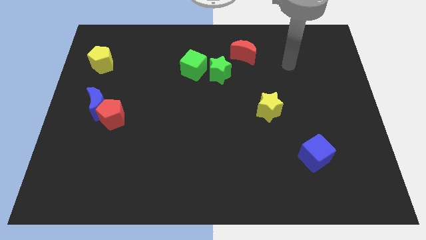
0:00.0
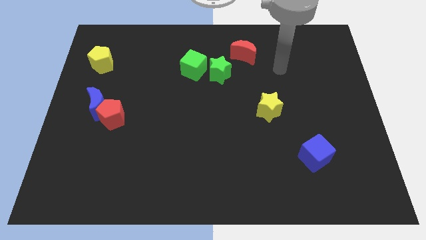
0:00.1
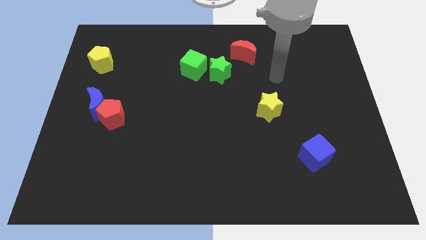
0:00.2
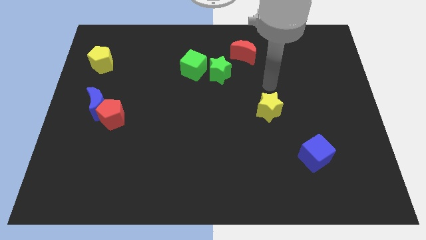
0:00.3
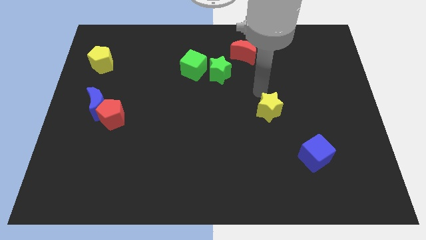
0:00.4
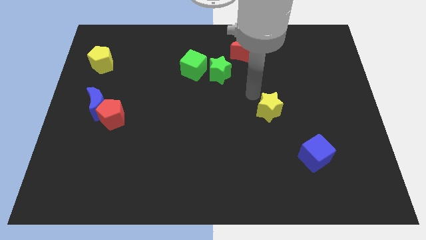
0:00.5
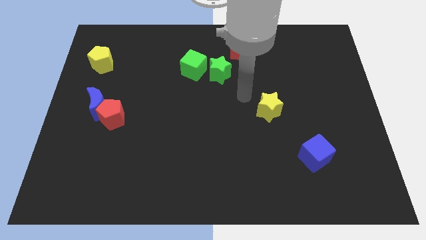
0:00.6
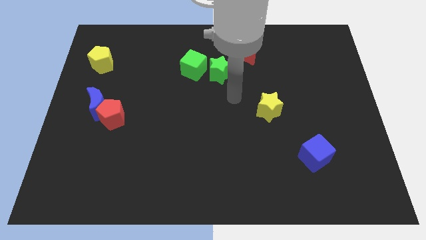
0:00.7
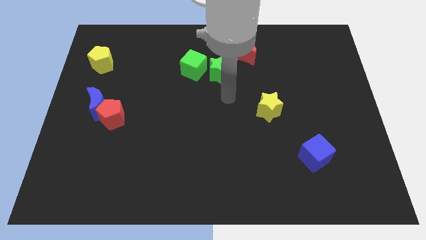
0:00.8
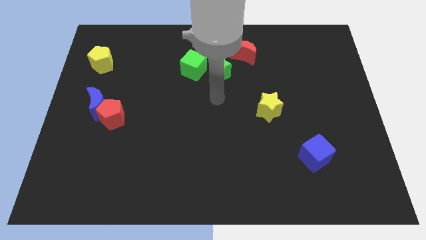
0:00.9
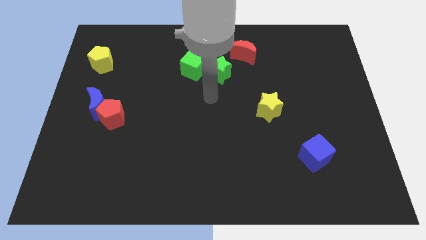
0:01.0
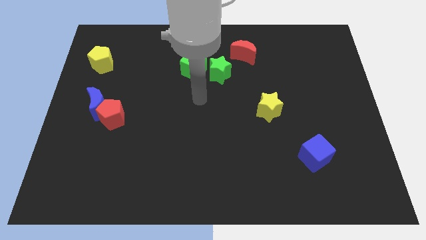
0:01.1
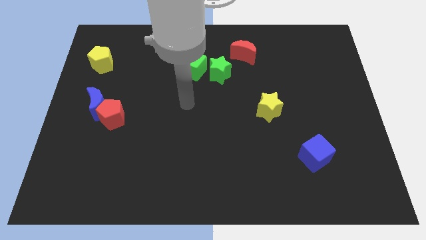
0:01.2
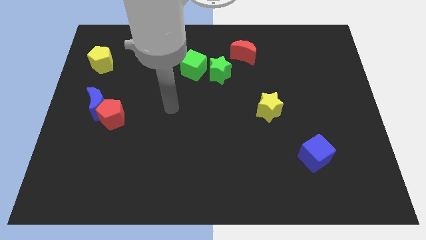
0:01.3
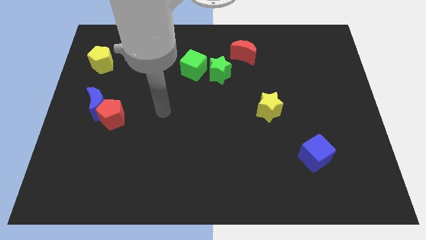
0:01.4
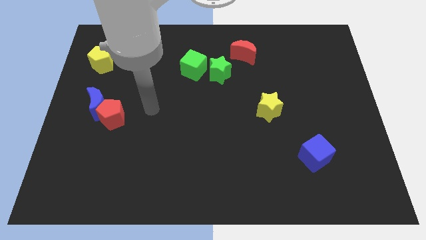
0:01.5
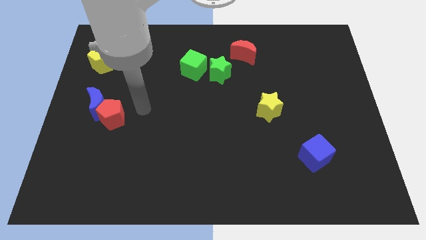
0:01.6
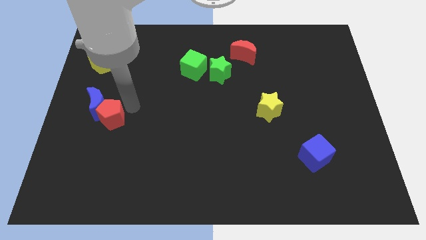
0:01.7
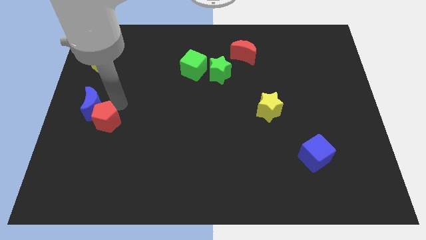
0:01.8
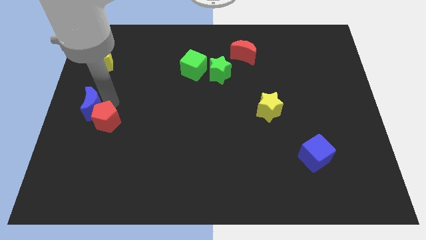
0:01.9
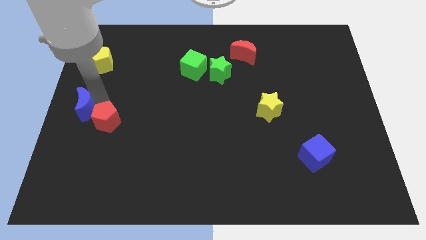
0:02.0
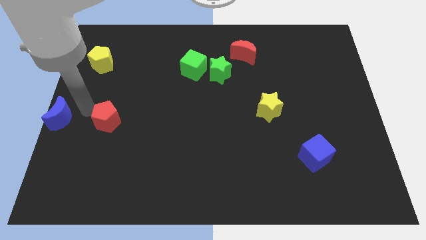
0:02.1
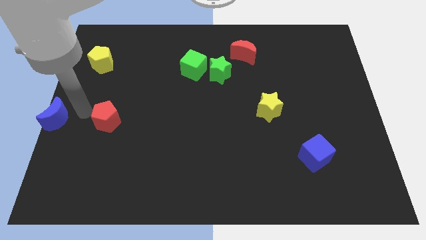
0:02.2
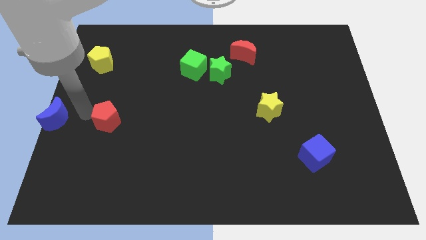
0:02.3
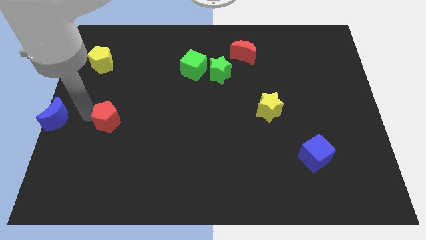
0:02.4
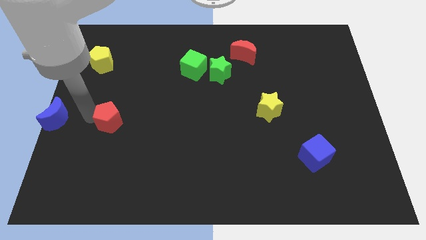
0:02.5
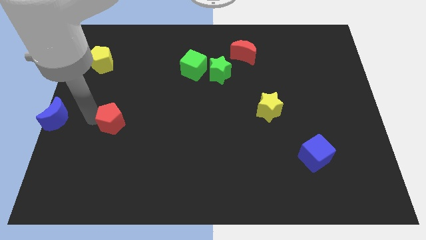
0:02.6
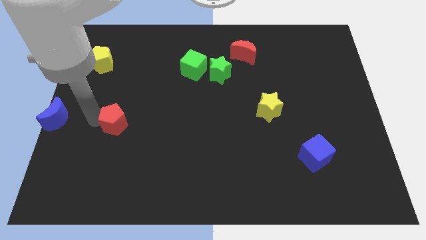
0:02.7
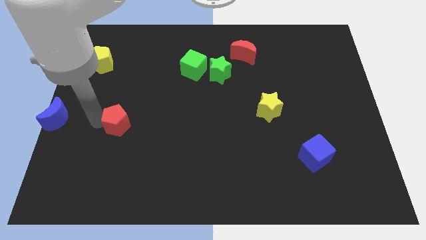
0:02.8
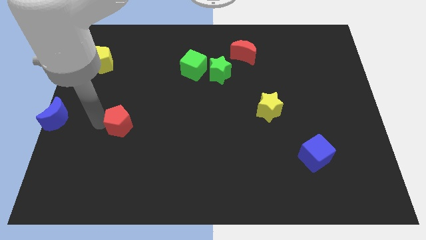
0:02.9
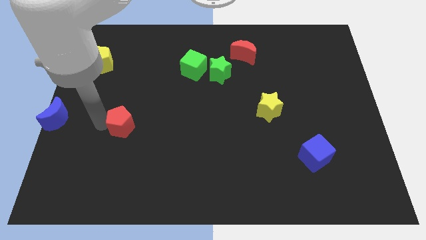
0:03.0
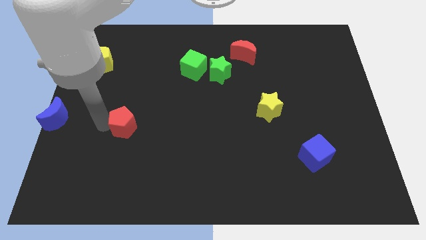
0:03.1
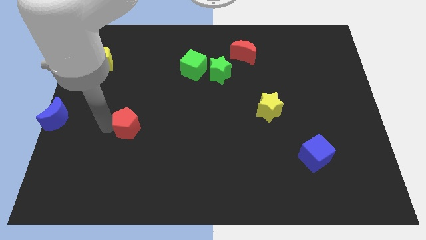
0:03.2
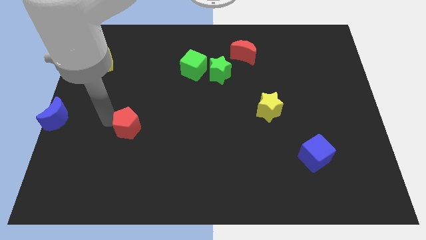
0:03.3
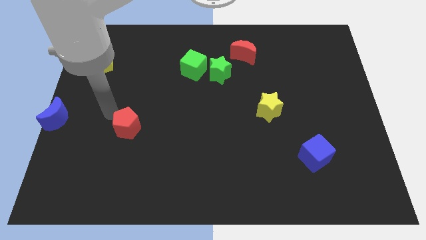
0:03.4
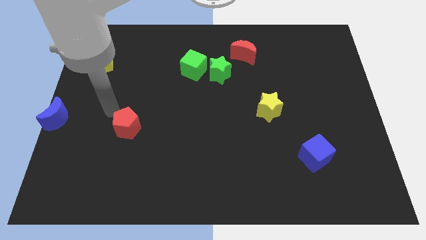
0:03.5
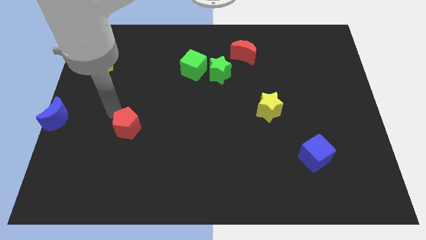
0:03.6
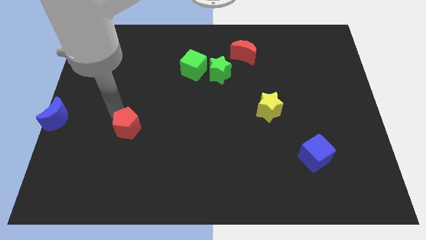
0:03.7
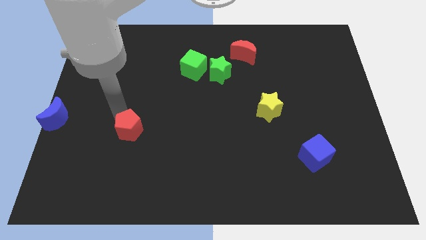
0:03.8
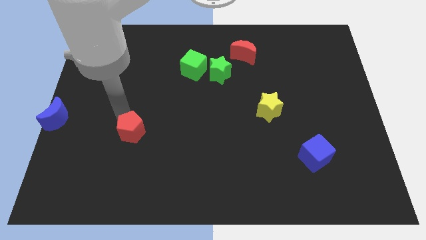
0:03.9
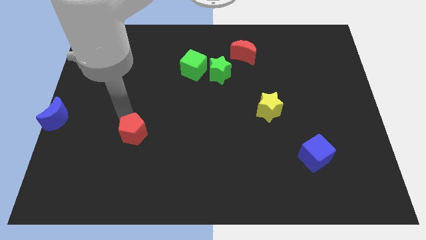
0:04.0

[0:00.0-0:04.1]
slightly push the red pentagon down and right

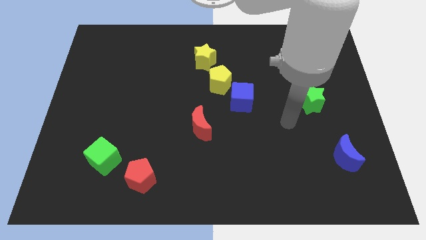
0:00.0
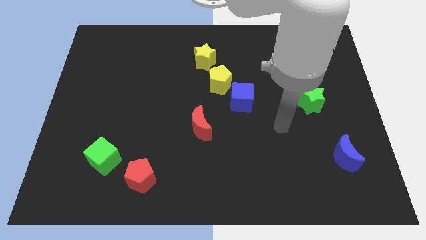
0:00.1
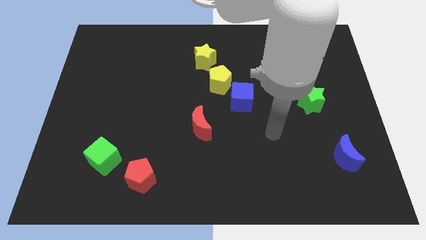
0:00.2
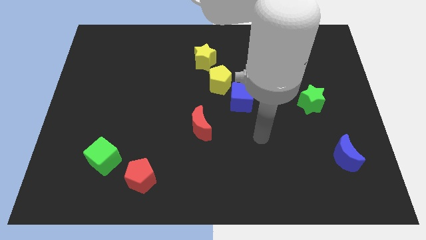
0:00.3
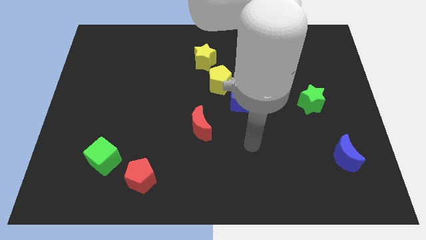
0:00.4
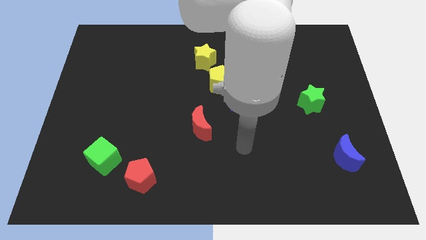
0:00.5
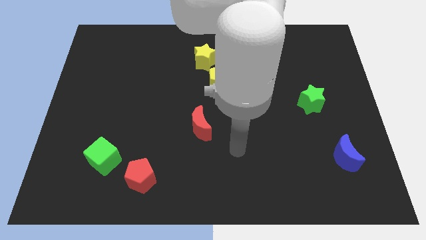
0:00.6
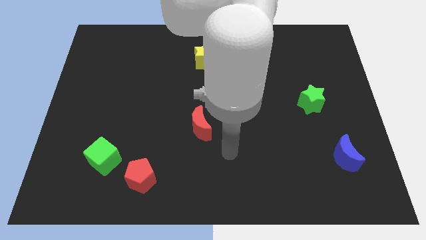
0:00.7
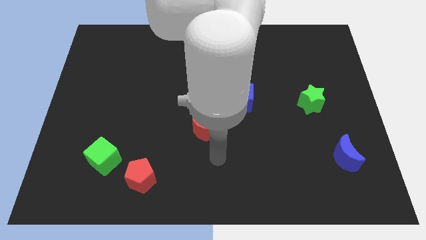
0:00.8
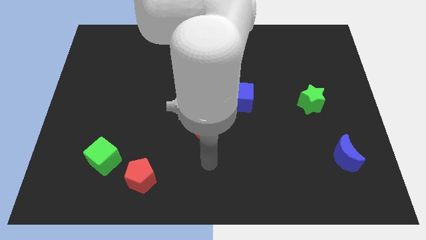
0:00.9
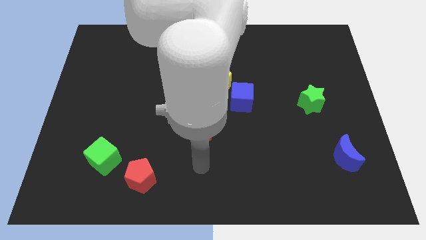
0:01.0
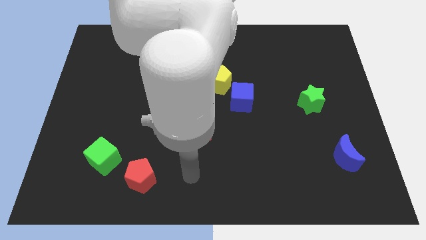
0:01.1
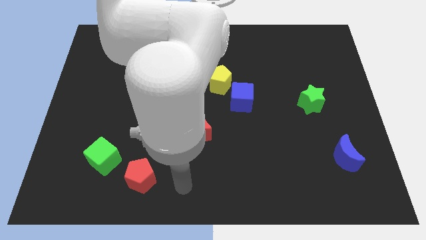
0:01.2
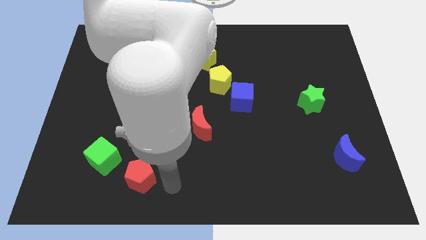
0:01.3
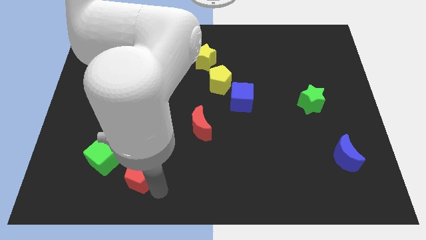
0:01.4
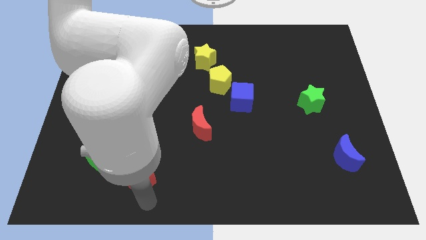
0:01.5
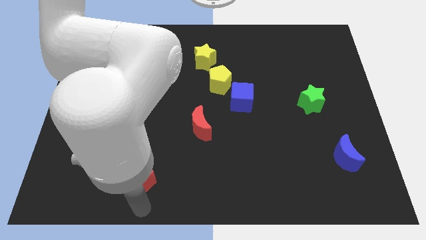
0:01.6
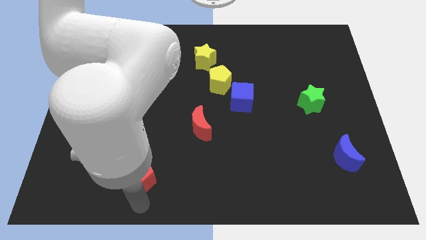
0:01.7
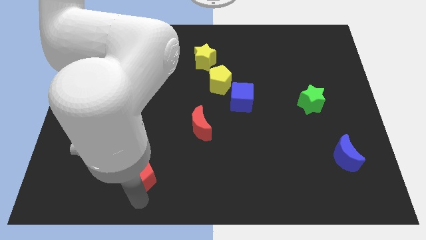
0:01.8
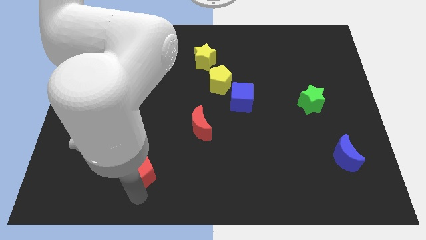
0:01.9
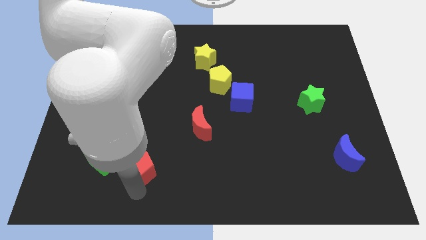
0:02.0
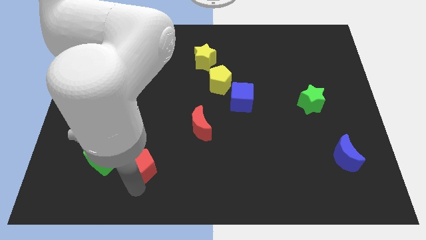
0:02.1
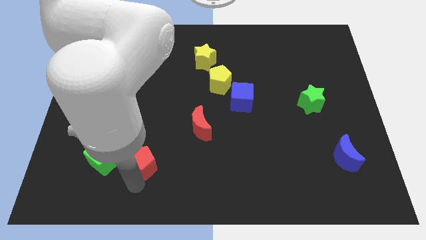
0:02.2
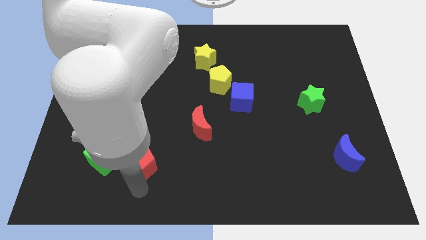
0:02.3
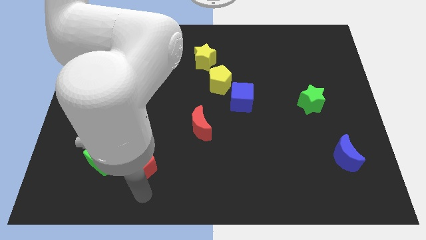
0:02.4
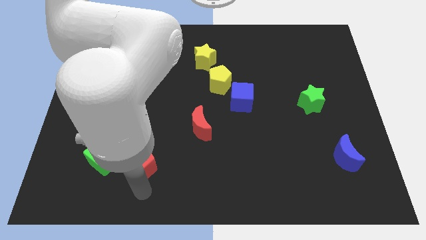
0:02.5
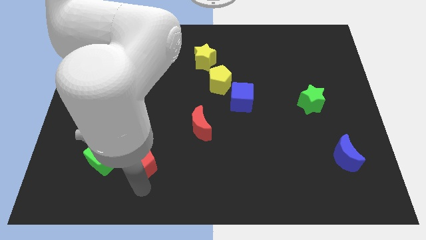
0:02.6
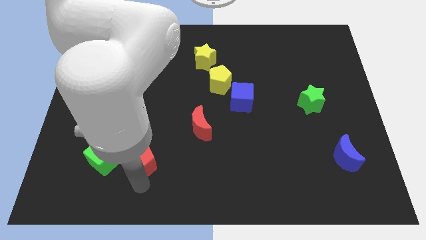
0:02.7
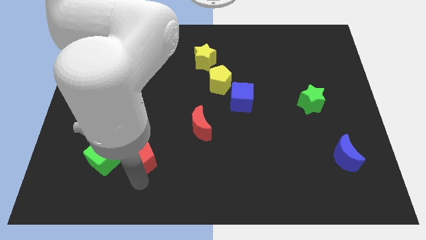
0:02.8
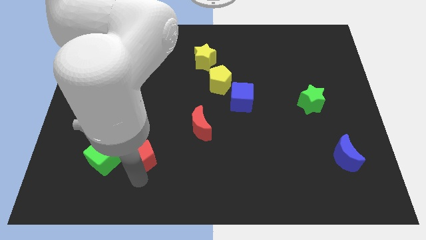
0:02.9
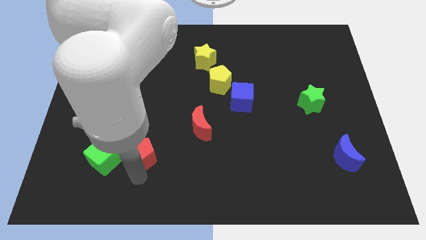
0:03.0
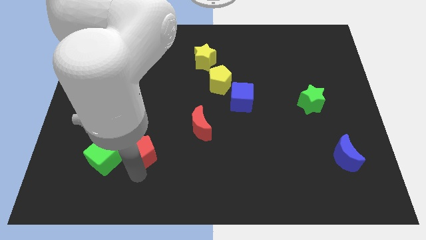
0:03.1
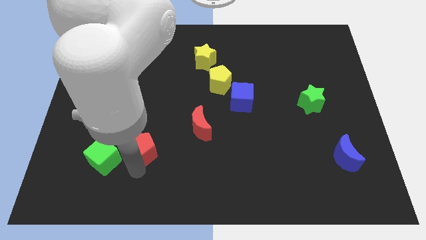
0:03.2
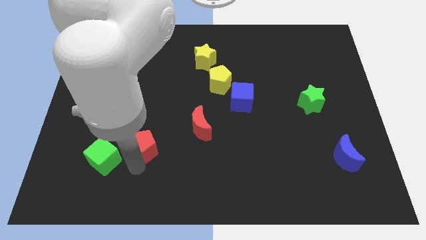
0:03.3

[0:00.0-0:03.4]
move the red pentagon a bit upwards

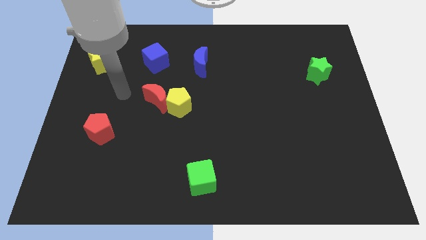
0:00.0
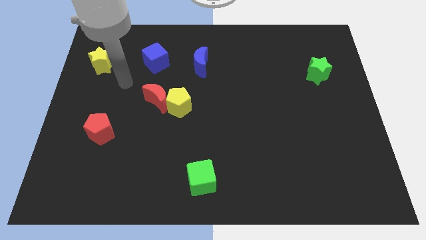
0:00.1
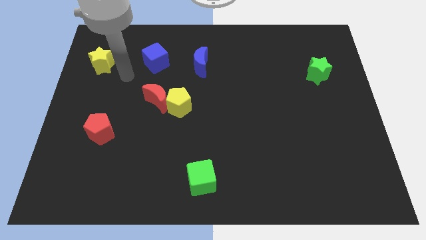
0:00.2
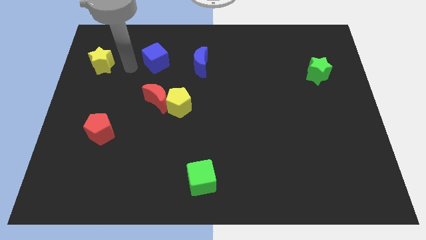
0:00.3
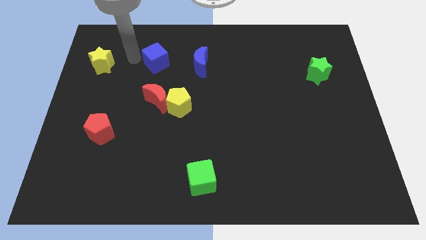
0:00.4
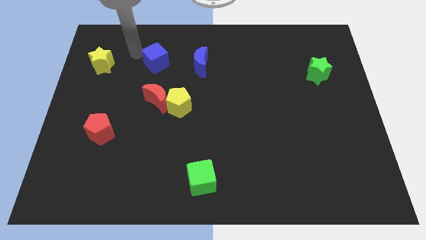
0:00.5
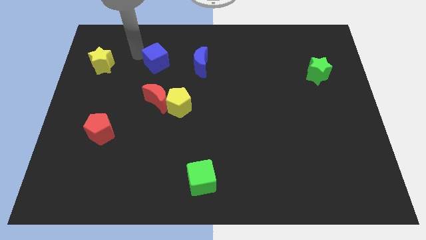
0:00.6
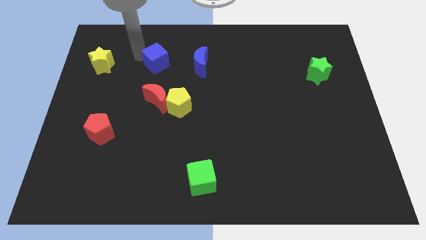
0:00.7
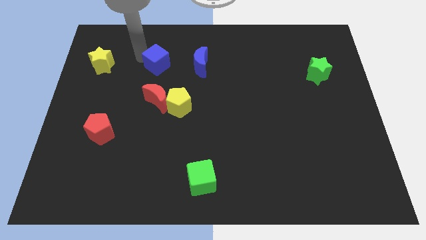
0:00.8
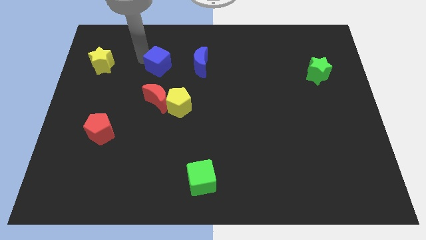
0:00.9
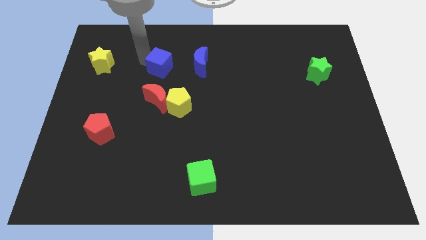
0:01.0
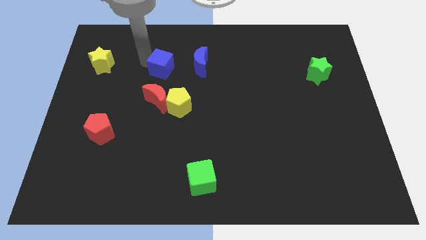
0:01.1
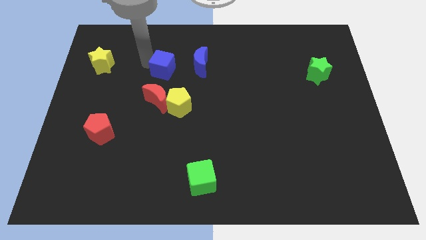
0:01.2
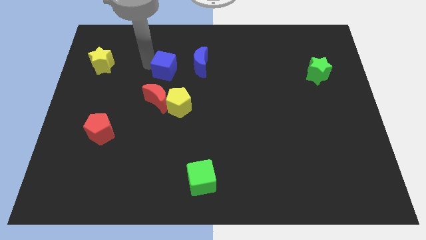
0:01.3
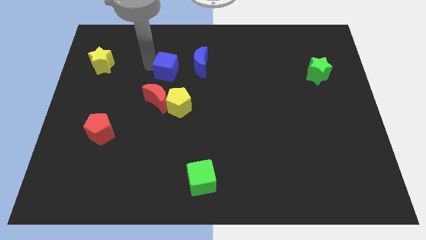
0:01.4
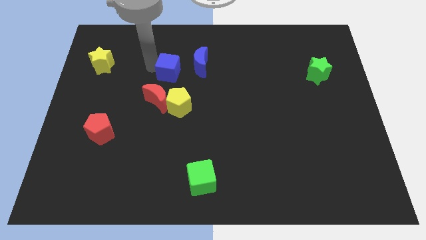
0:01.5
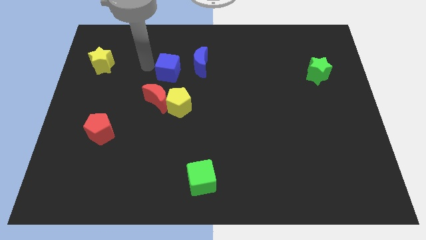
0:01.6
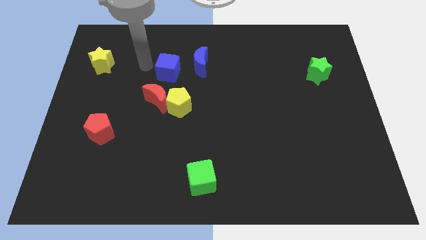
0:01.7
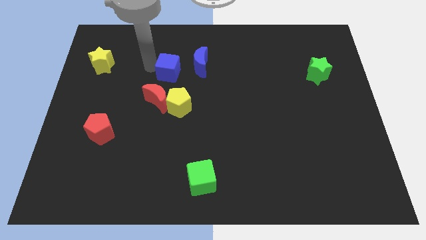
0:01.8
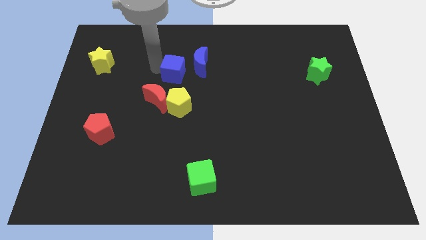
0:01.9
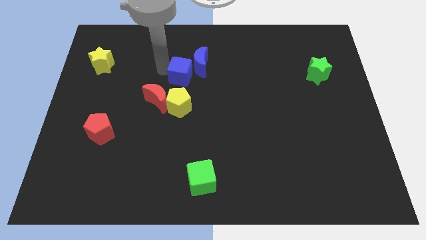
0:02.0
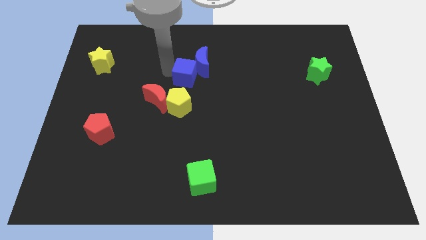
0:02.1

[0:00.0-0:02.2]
slightly slide the blue cube to the right
